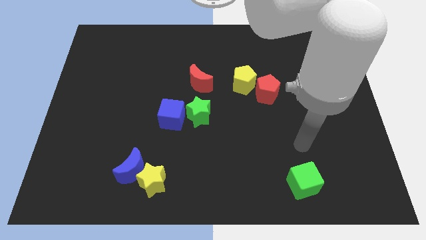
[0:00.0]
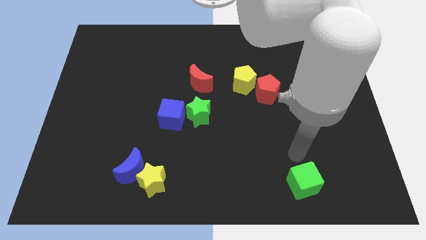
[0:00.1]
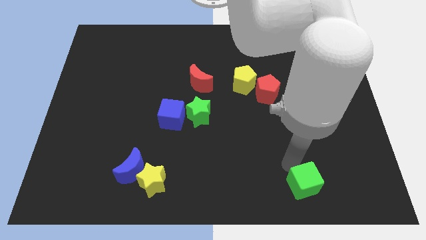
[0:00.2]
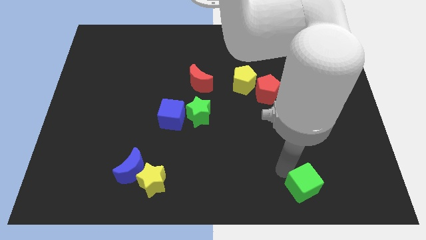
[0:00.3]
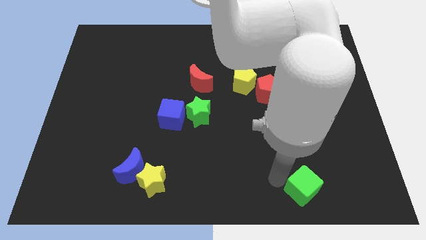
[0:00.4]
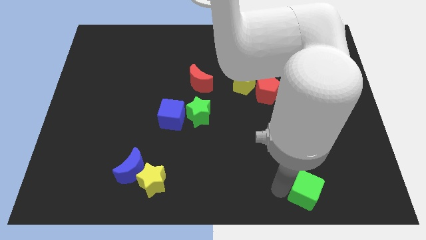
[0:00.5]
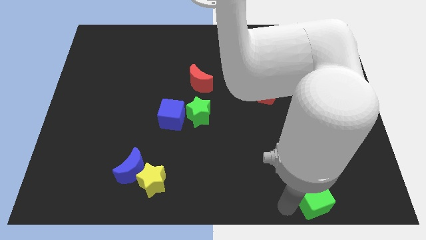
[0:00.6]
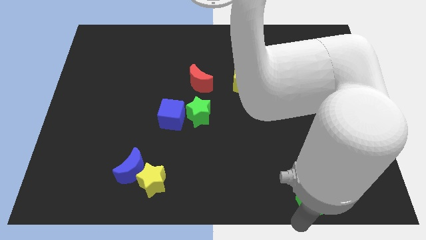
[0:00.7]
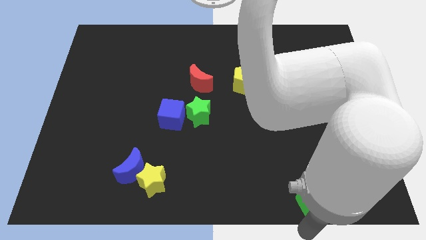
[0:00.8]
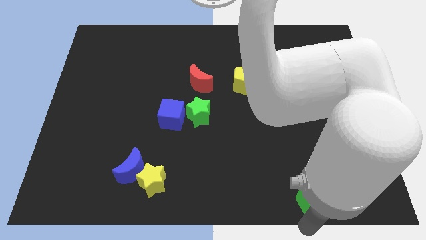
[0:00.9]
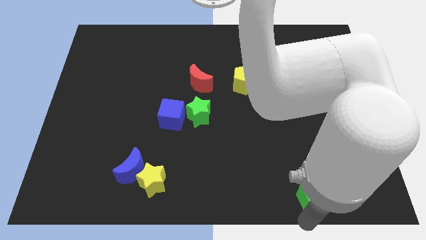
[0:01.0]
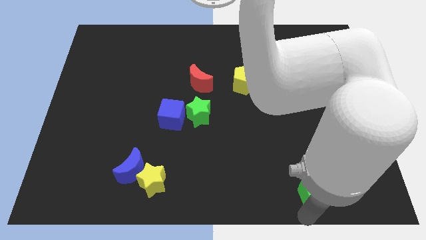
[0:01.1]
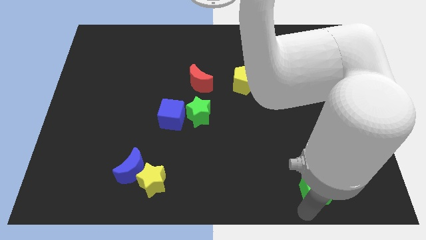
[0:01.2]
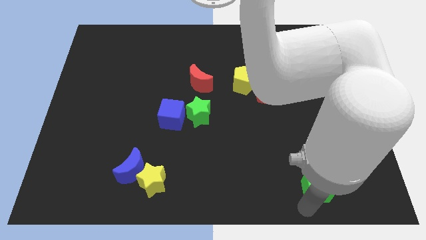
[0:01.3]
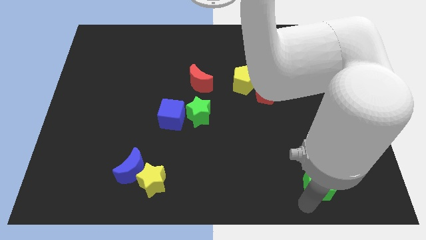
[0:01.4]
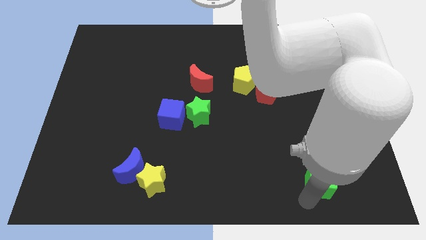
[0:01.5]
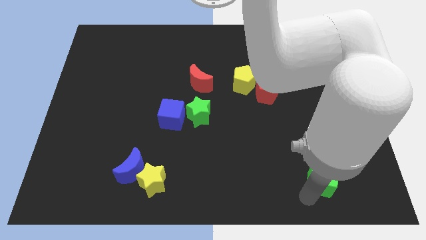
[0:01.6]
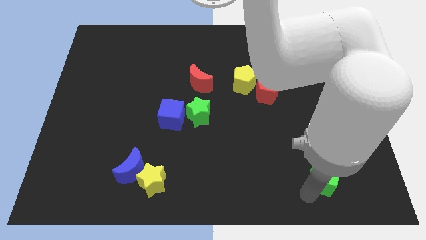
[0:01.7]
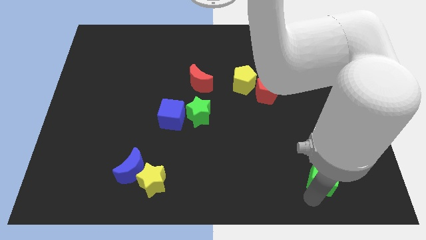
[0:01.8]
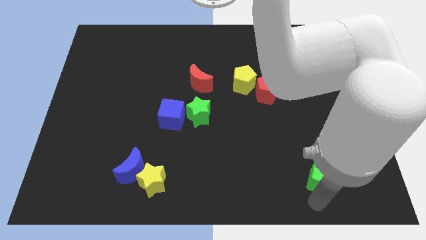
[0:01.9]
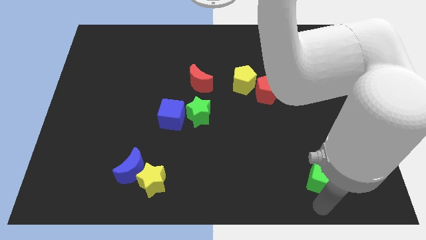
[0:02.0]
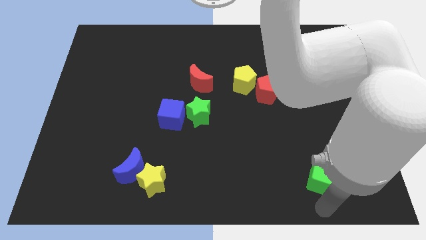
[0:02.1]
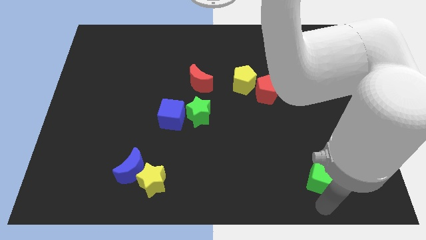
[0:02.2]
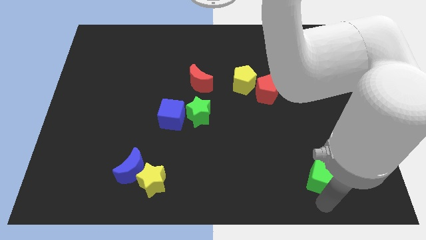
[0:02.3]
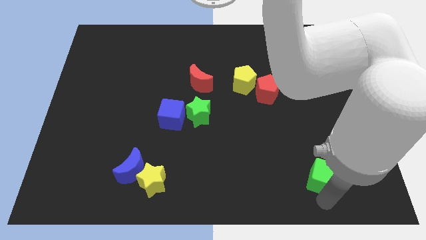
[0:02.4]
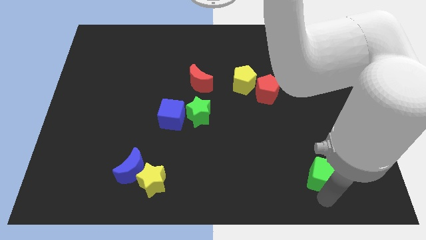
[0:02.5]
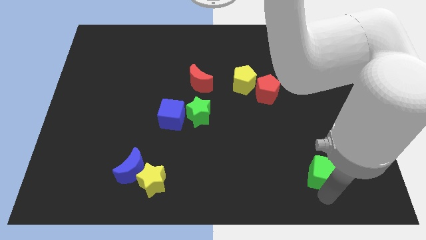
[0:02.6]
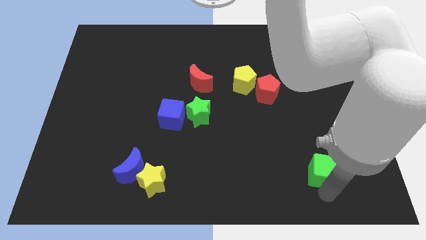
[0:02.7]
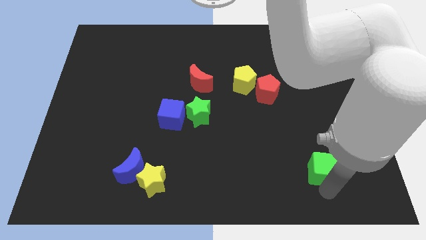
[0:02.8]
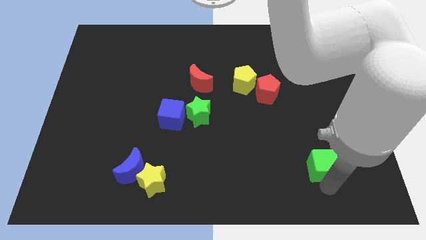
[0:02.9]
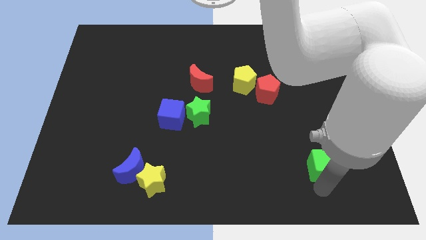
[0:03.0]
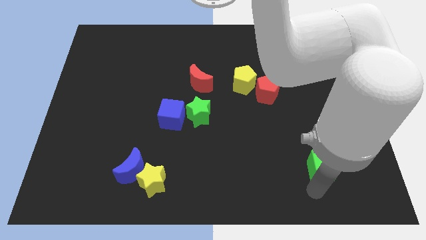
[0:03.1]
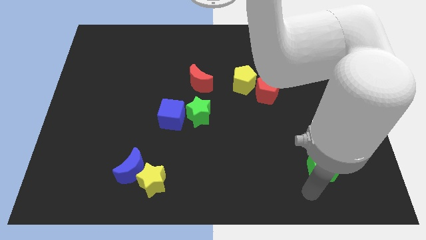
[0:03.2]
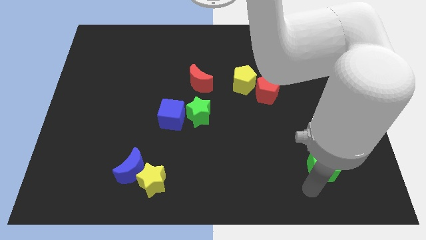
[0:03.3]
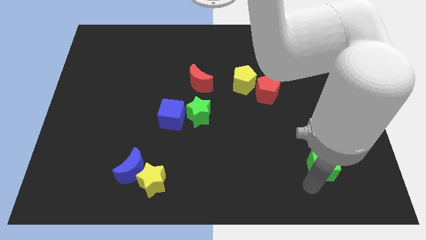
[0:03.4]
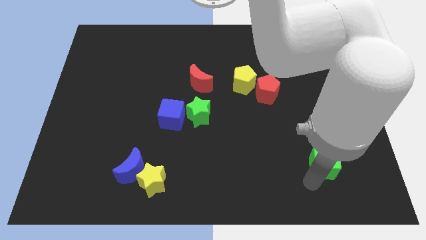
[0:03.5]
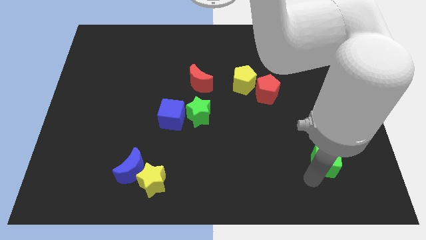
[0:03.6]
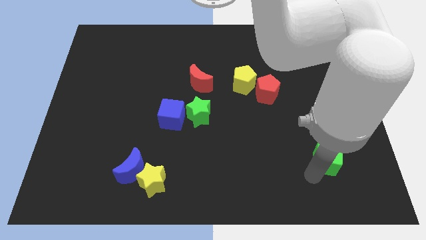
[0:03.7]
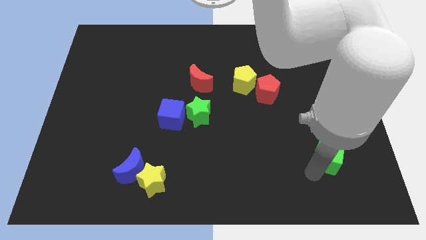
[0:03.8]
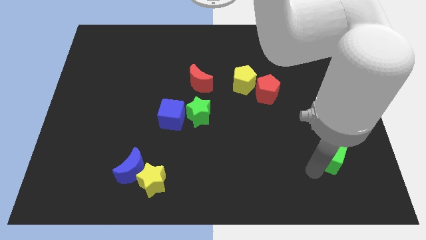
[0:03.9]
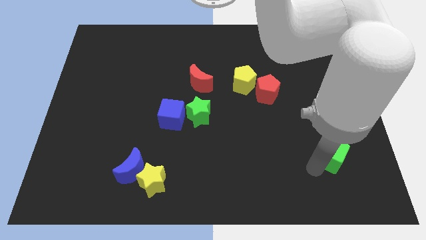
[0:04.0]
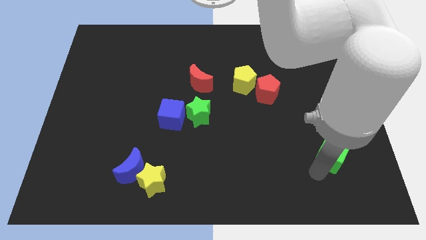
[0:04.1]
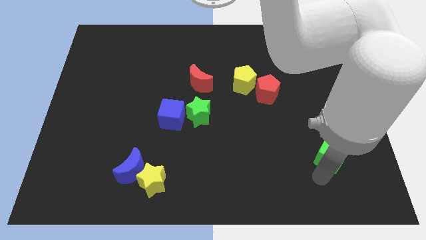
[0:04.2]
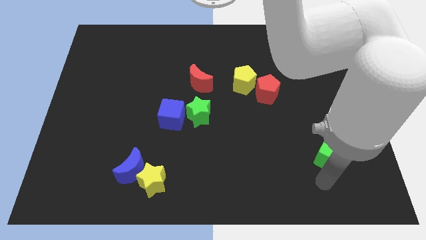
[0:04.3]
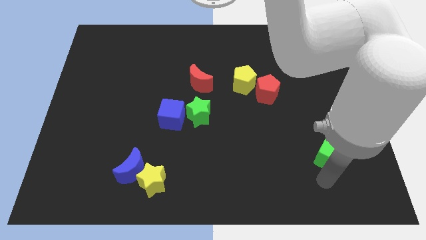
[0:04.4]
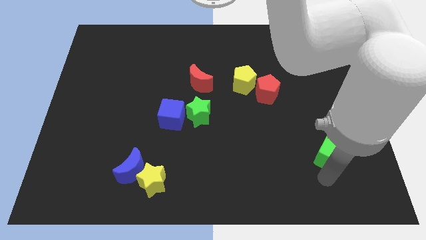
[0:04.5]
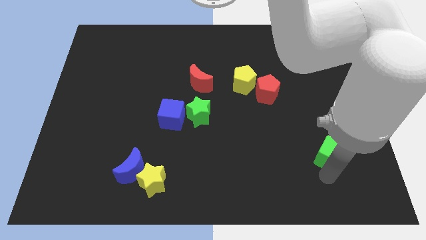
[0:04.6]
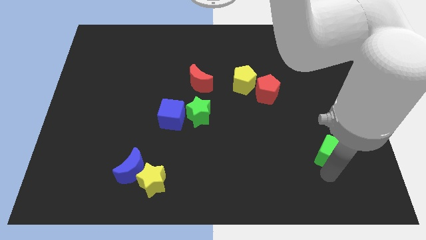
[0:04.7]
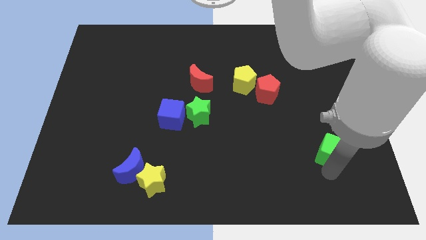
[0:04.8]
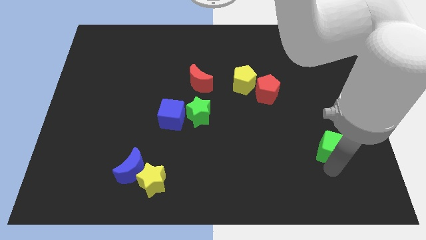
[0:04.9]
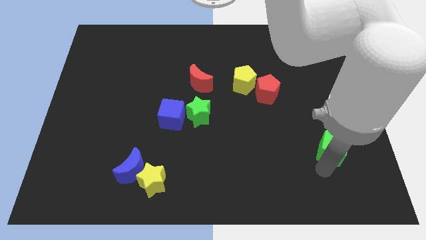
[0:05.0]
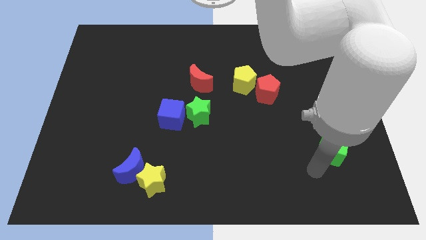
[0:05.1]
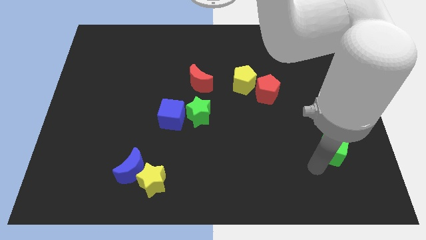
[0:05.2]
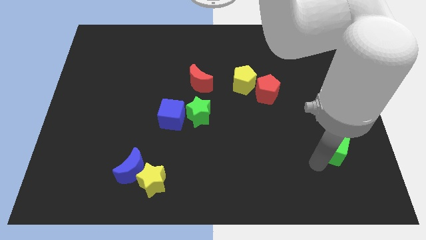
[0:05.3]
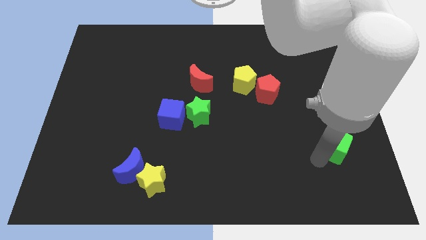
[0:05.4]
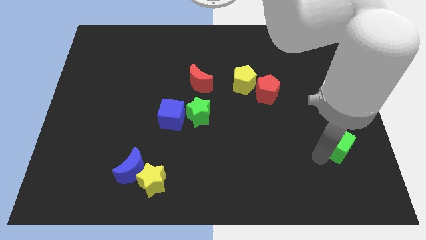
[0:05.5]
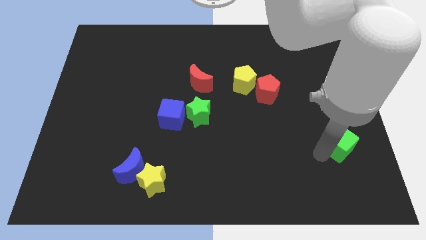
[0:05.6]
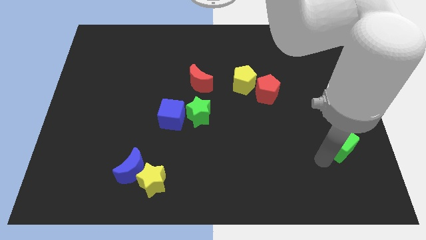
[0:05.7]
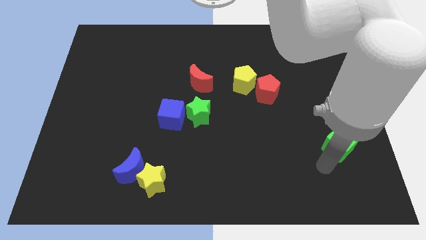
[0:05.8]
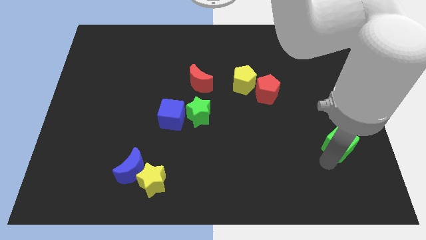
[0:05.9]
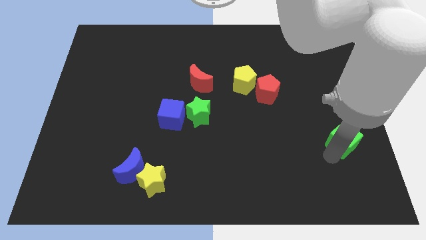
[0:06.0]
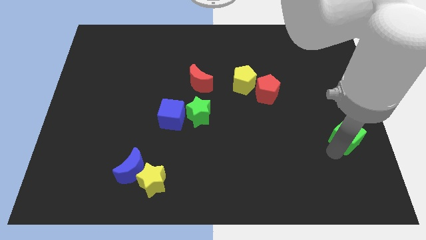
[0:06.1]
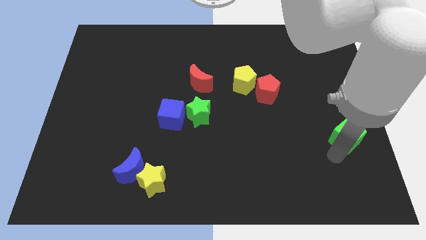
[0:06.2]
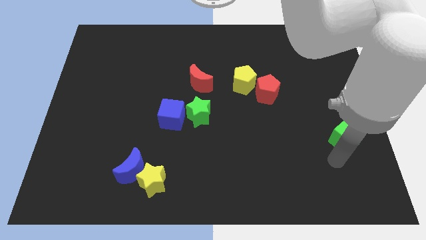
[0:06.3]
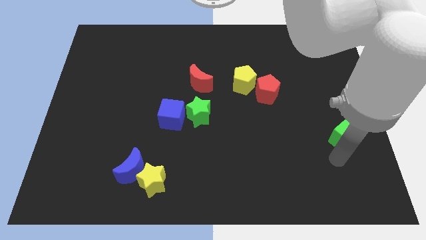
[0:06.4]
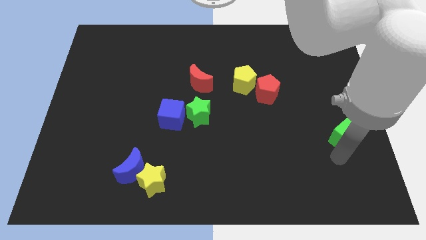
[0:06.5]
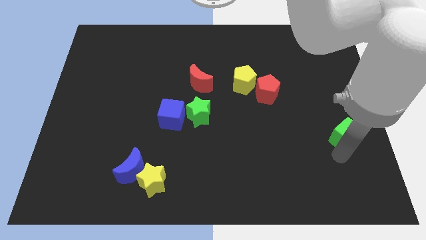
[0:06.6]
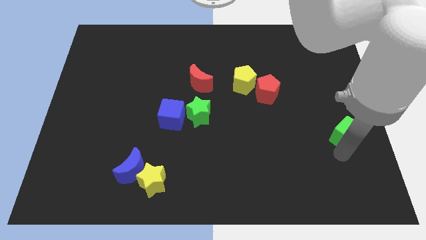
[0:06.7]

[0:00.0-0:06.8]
put the green cube to the right side
